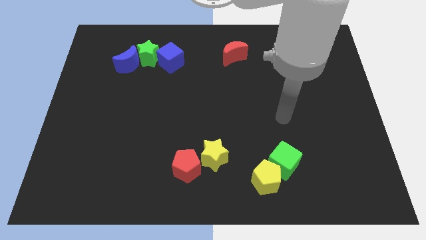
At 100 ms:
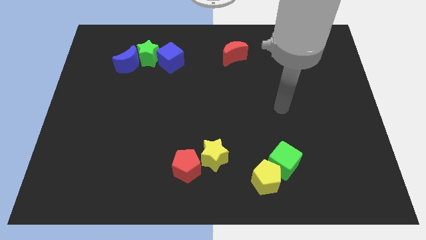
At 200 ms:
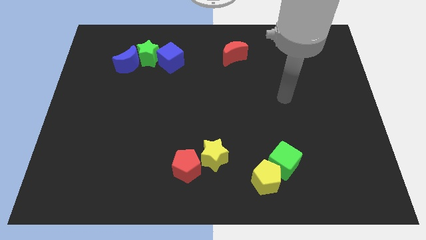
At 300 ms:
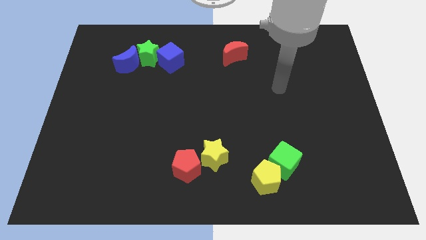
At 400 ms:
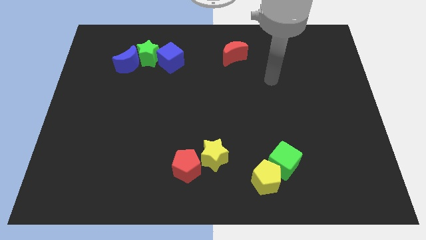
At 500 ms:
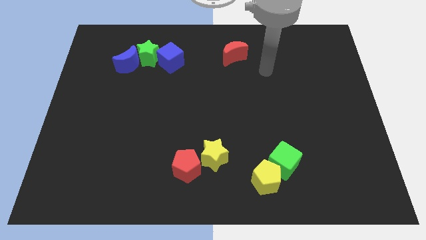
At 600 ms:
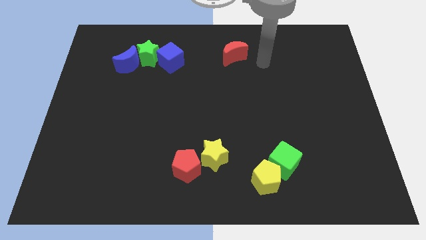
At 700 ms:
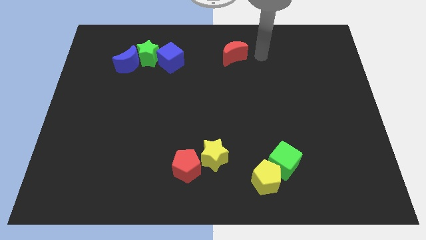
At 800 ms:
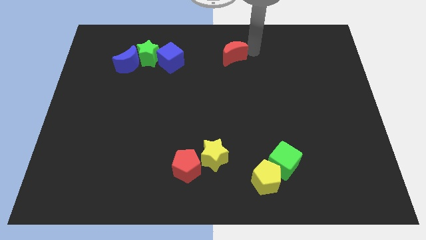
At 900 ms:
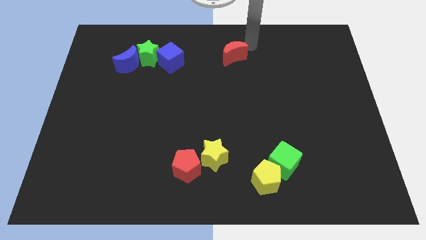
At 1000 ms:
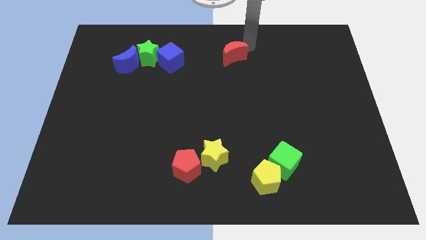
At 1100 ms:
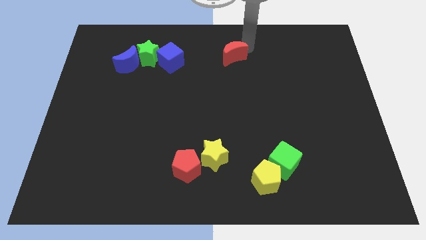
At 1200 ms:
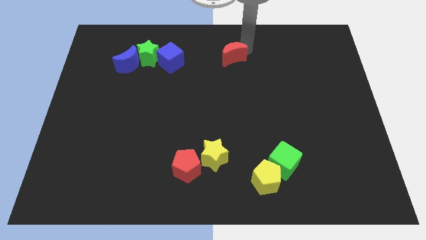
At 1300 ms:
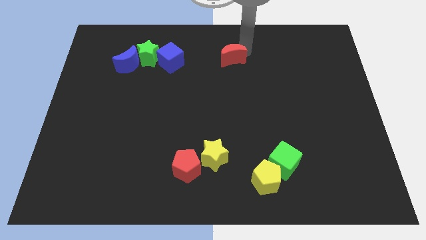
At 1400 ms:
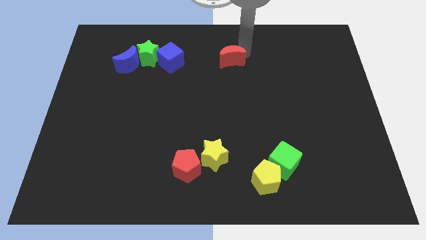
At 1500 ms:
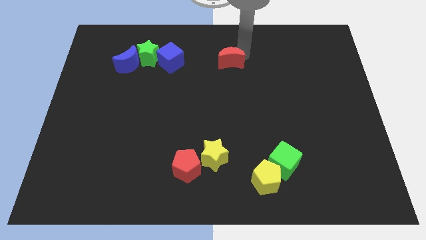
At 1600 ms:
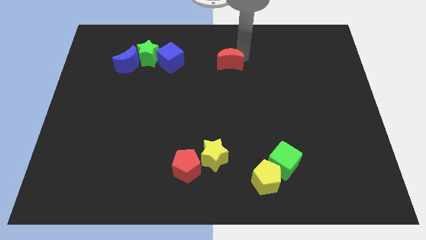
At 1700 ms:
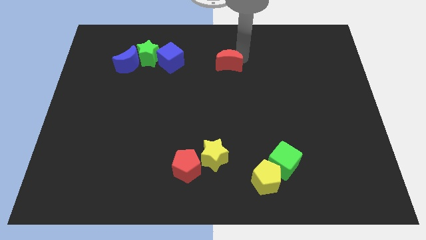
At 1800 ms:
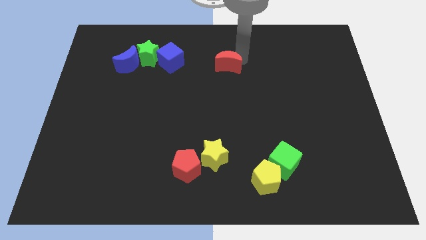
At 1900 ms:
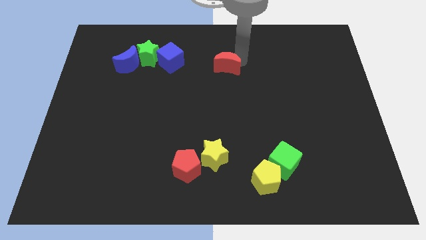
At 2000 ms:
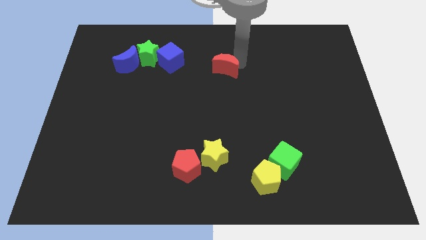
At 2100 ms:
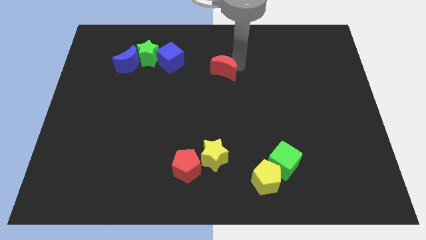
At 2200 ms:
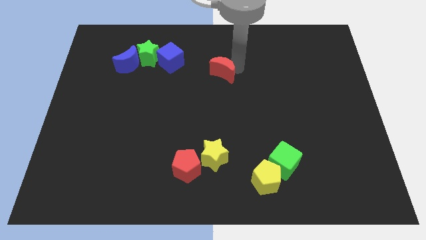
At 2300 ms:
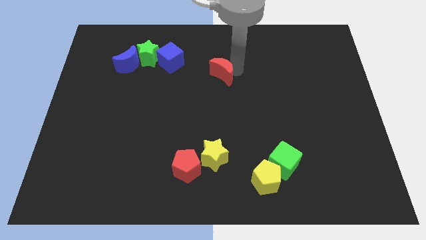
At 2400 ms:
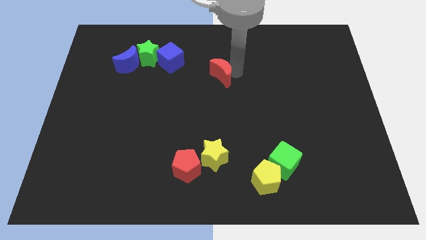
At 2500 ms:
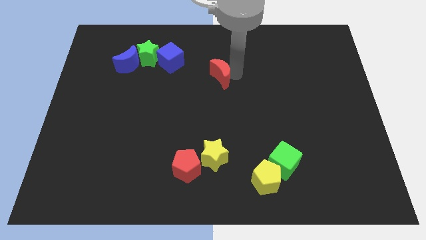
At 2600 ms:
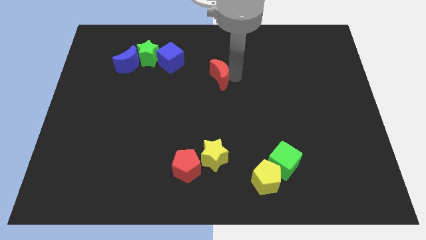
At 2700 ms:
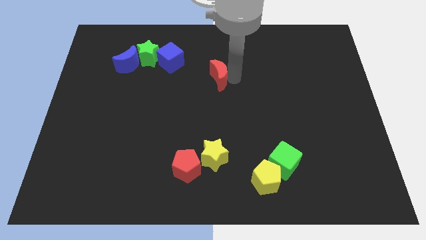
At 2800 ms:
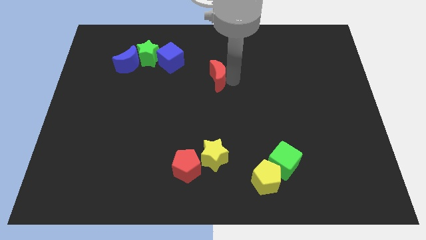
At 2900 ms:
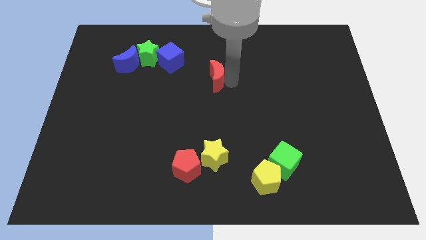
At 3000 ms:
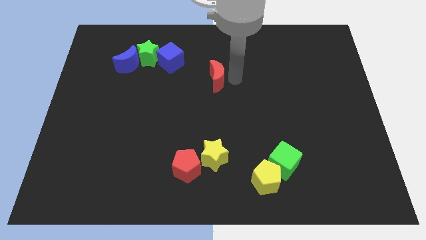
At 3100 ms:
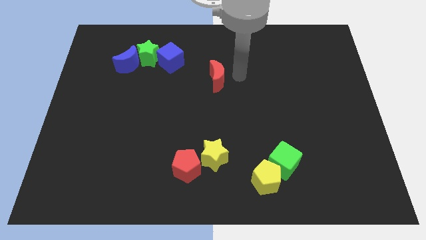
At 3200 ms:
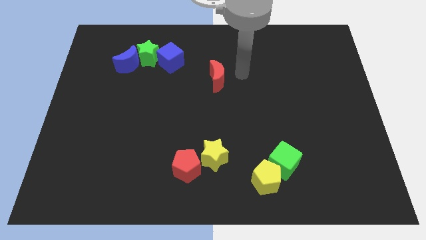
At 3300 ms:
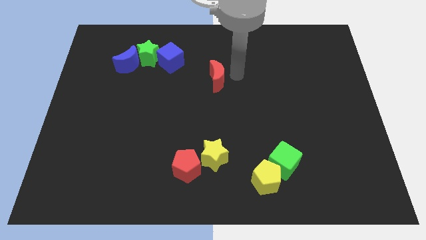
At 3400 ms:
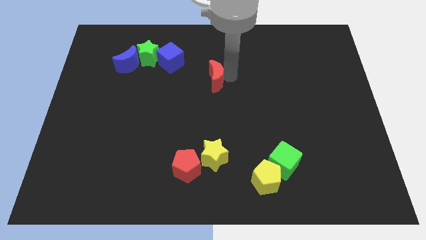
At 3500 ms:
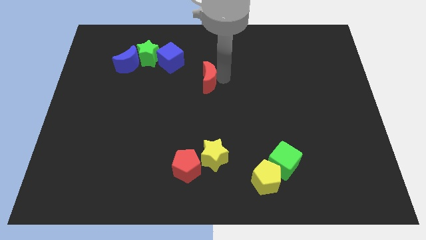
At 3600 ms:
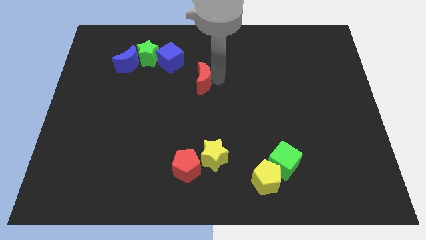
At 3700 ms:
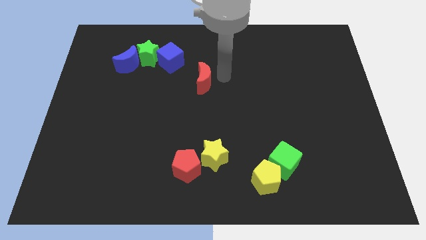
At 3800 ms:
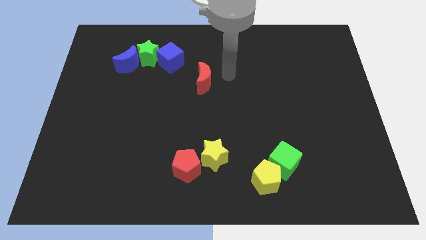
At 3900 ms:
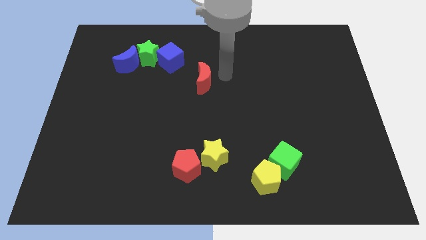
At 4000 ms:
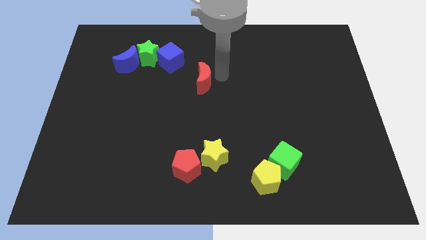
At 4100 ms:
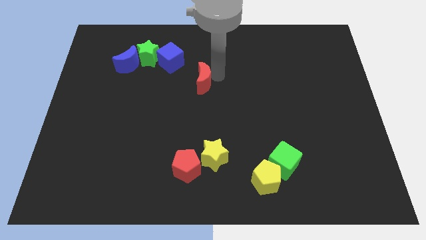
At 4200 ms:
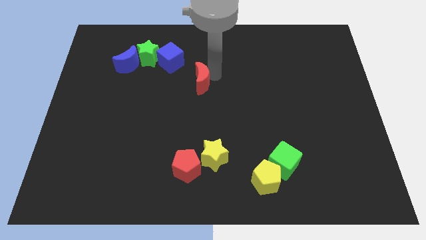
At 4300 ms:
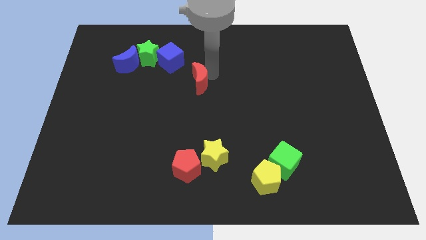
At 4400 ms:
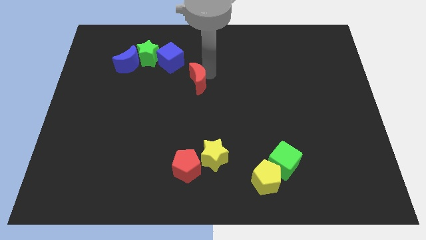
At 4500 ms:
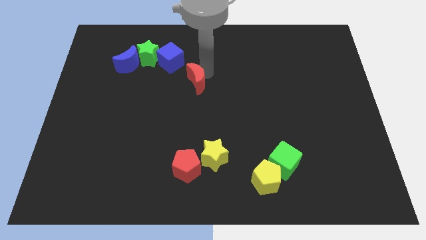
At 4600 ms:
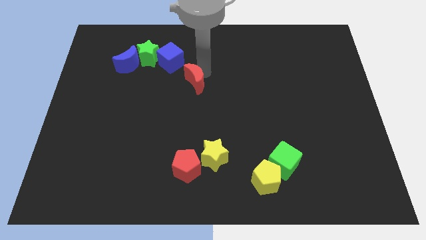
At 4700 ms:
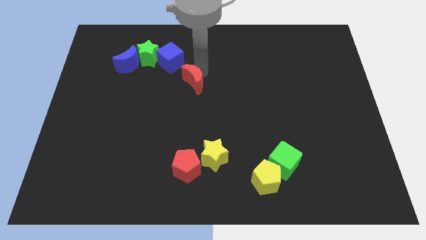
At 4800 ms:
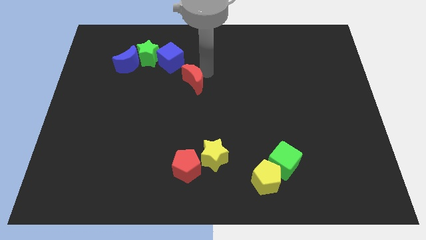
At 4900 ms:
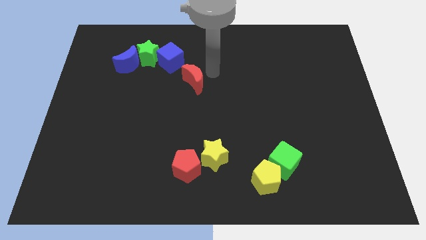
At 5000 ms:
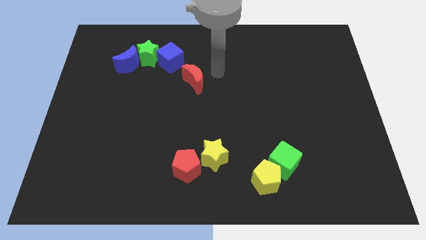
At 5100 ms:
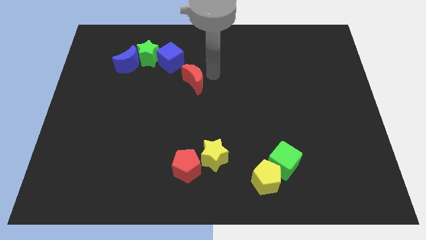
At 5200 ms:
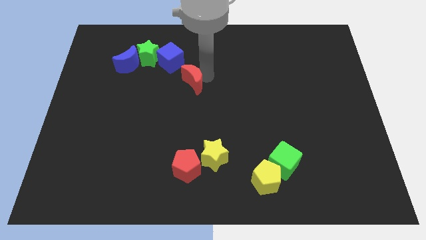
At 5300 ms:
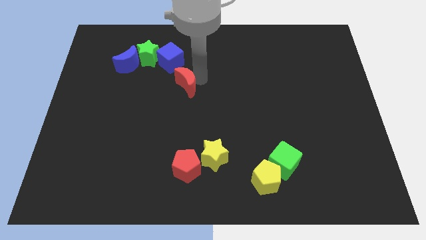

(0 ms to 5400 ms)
put the red moon below the blue cube

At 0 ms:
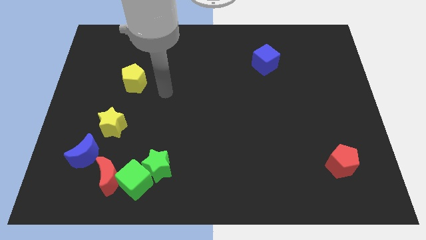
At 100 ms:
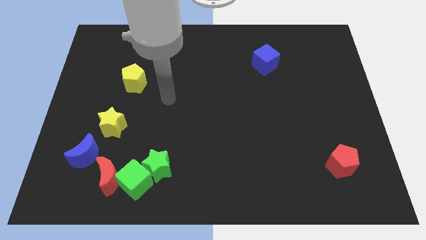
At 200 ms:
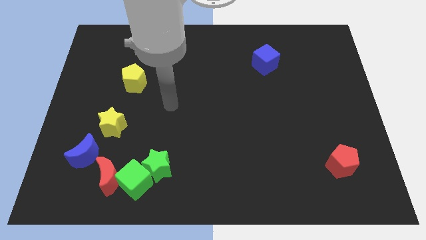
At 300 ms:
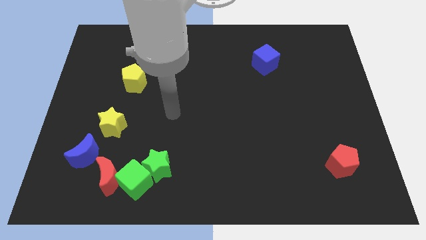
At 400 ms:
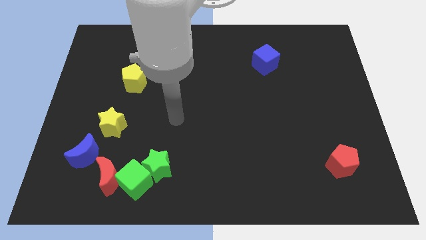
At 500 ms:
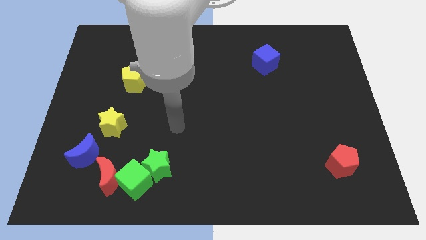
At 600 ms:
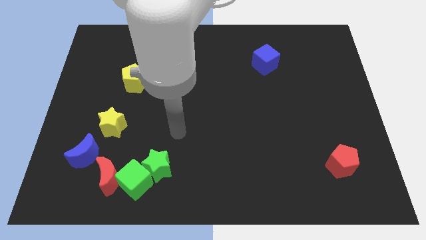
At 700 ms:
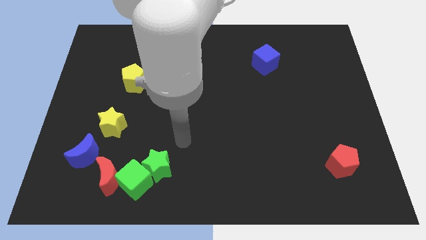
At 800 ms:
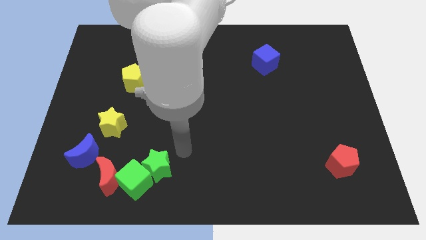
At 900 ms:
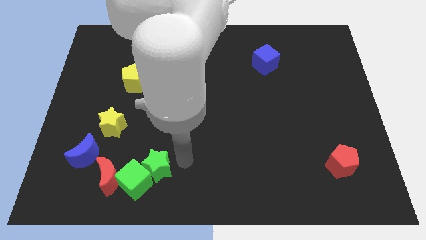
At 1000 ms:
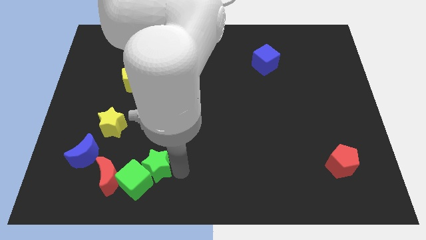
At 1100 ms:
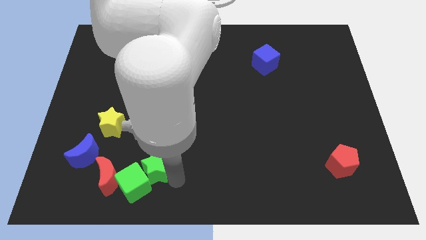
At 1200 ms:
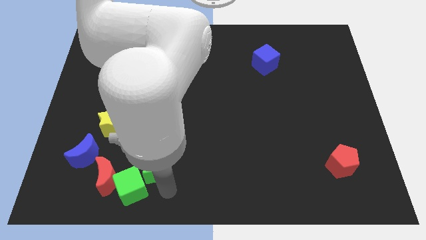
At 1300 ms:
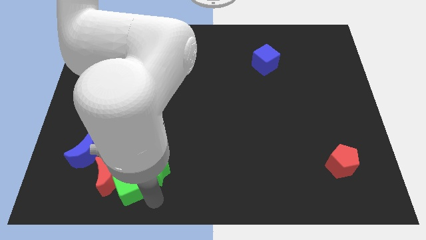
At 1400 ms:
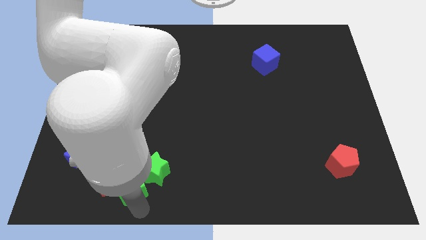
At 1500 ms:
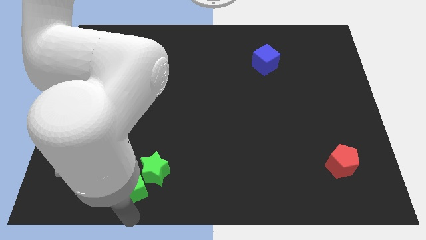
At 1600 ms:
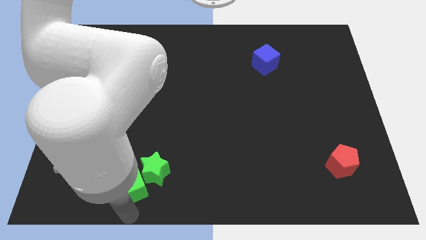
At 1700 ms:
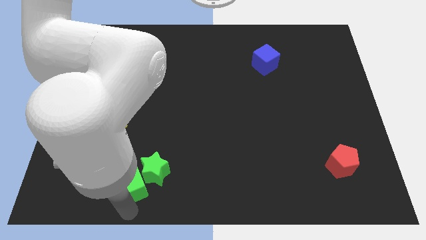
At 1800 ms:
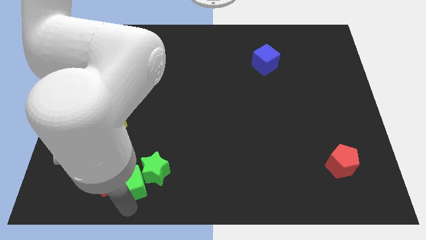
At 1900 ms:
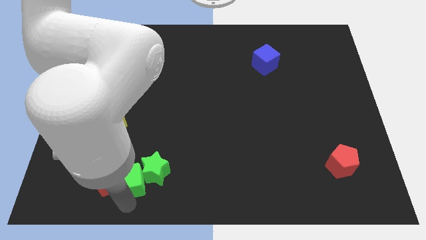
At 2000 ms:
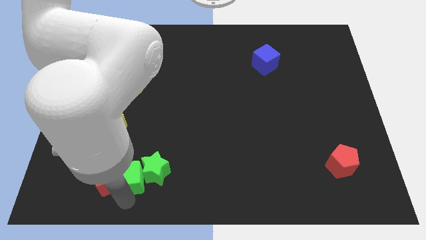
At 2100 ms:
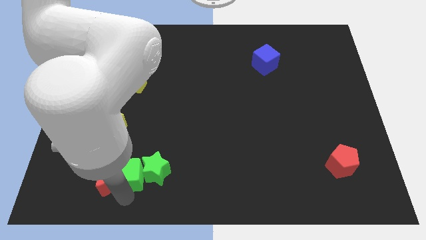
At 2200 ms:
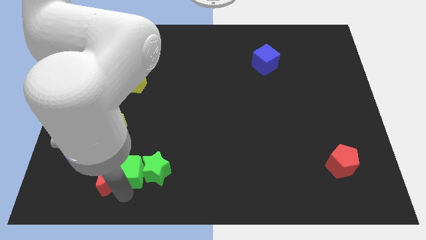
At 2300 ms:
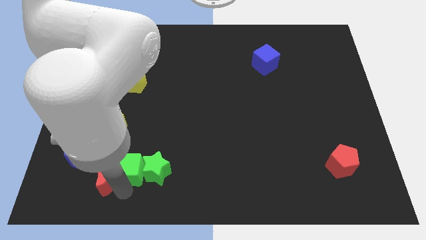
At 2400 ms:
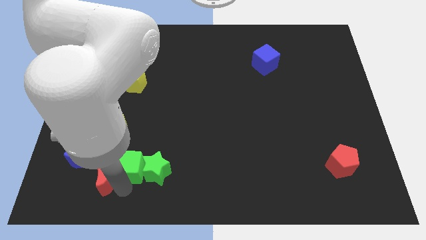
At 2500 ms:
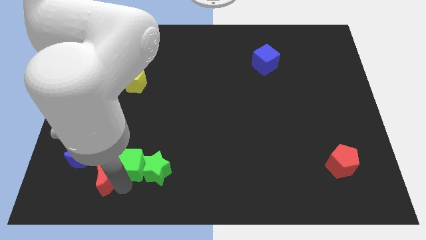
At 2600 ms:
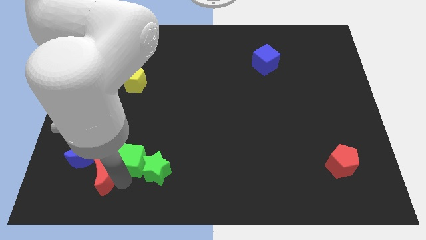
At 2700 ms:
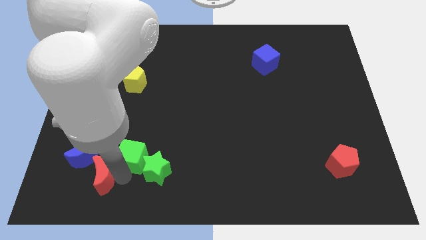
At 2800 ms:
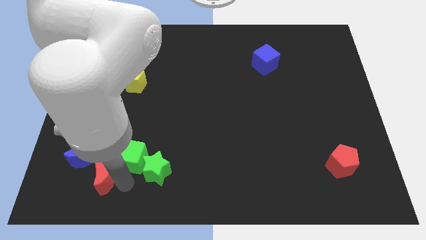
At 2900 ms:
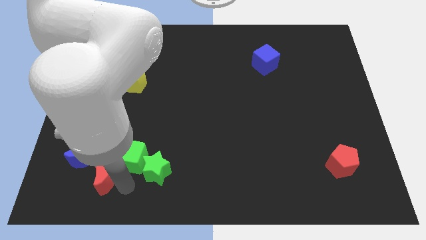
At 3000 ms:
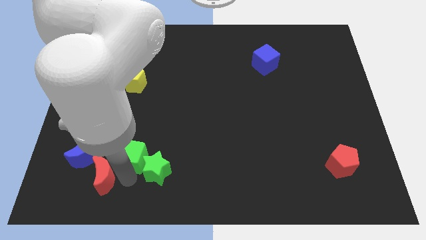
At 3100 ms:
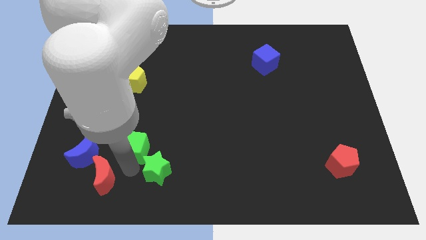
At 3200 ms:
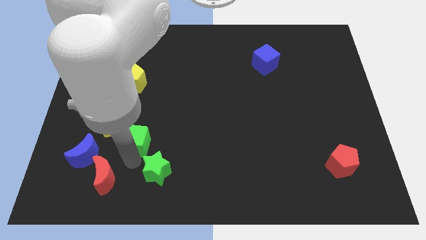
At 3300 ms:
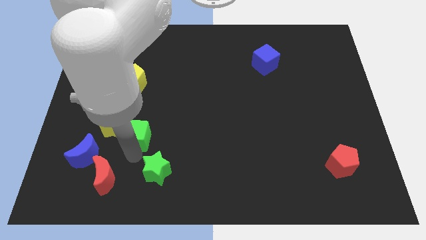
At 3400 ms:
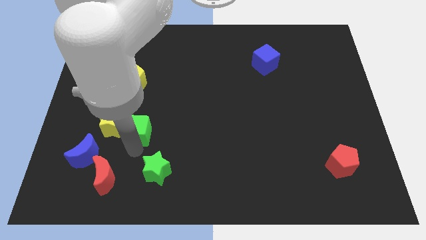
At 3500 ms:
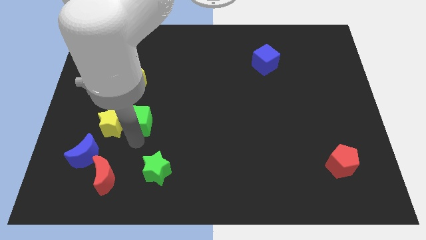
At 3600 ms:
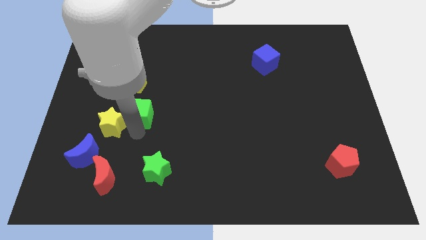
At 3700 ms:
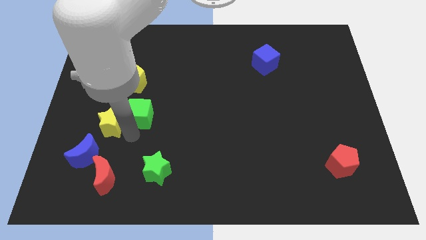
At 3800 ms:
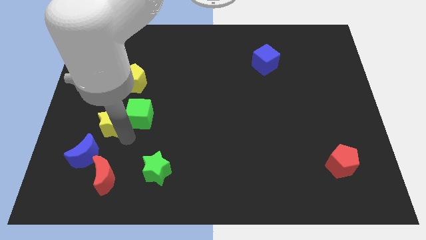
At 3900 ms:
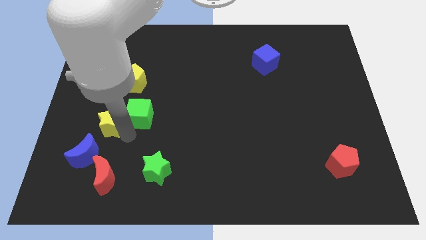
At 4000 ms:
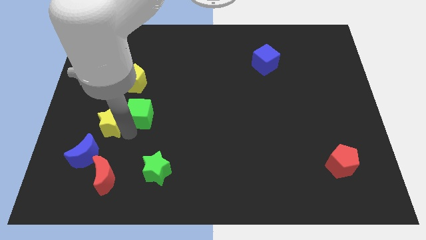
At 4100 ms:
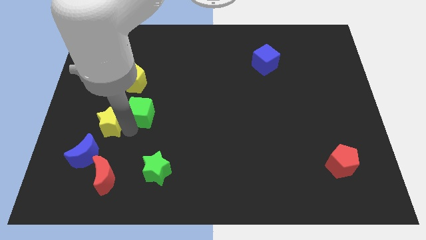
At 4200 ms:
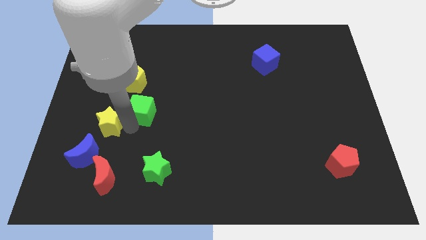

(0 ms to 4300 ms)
move the green cube diagonally down and to the right of the yellow pentagon
